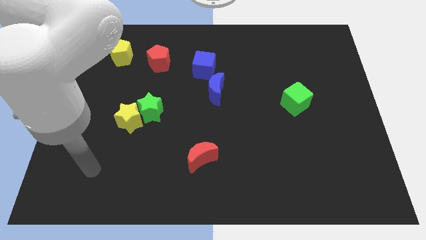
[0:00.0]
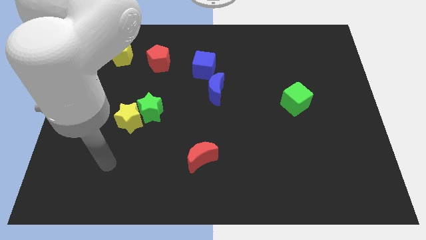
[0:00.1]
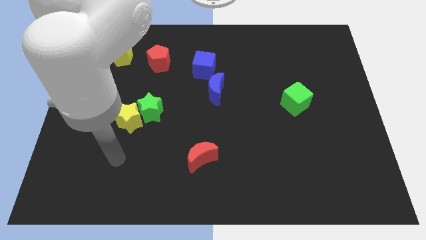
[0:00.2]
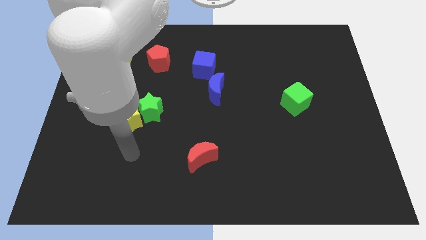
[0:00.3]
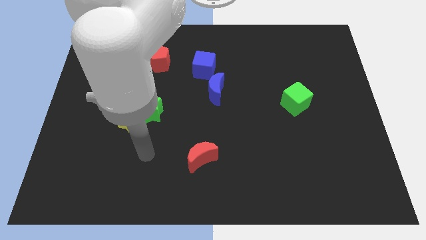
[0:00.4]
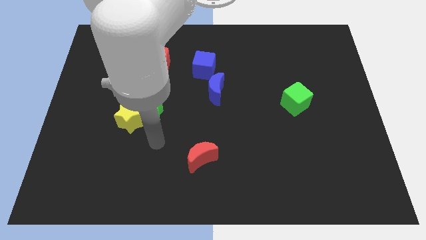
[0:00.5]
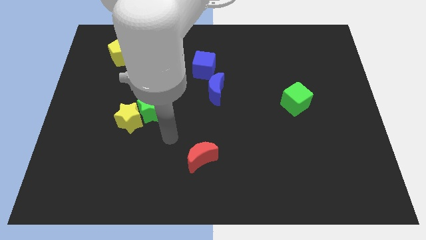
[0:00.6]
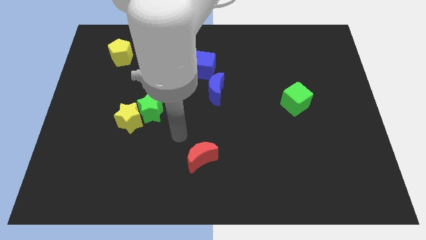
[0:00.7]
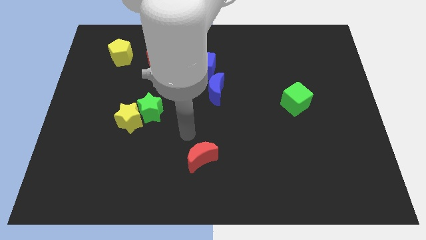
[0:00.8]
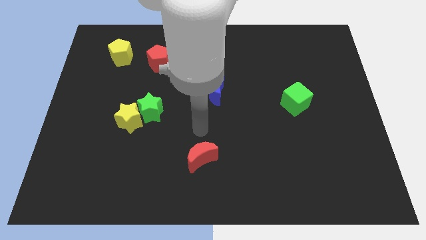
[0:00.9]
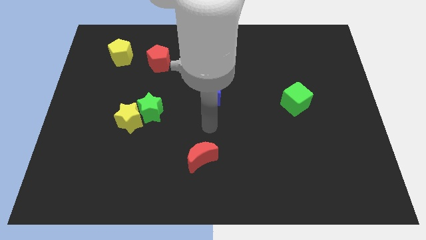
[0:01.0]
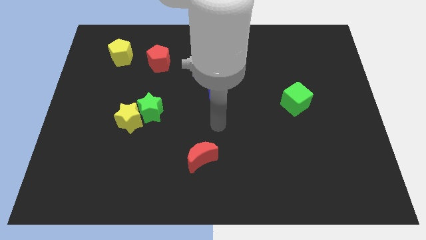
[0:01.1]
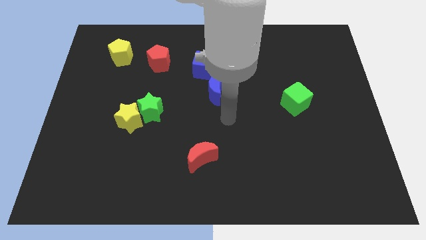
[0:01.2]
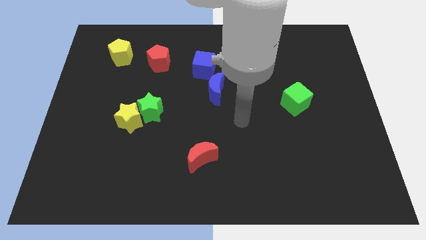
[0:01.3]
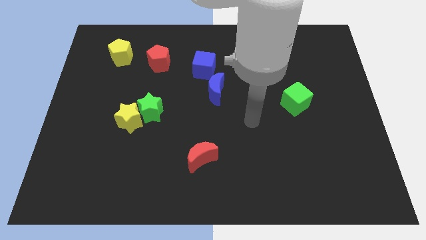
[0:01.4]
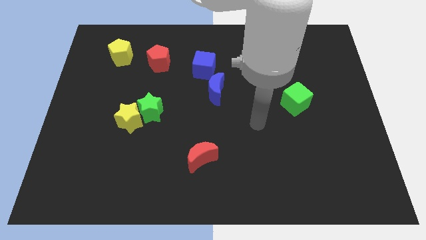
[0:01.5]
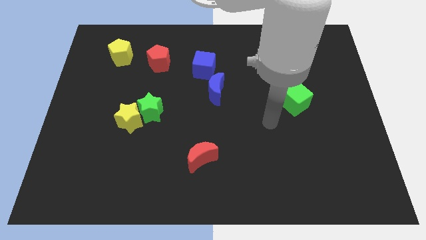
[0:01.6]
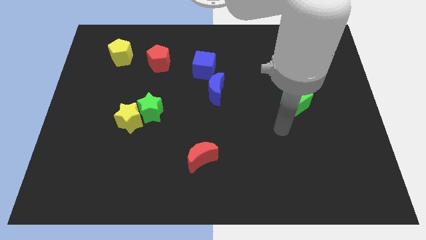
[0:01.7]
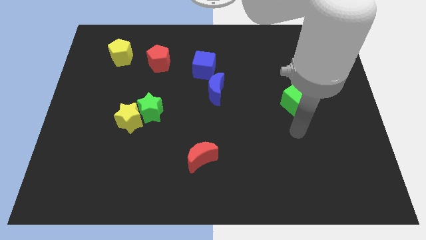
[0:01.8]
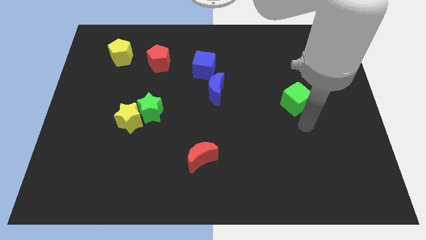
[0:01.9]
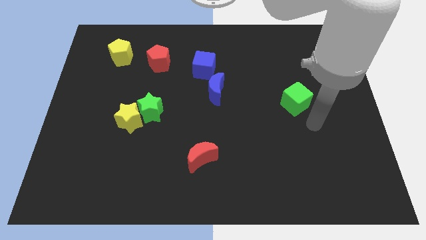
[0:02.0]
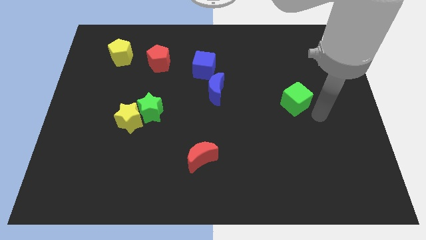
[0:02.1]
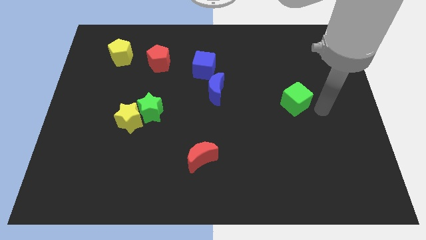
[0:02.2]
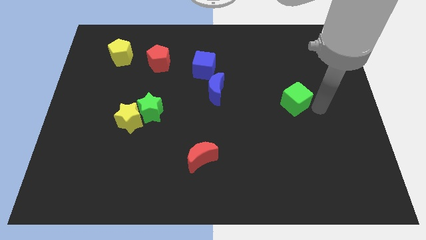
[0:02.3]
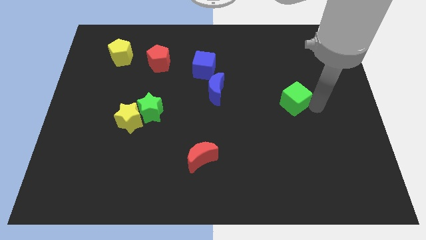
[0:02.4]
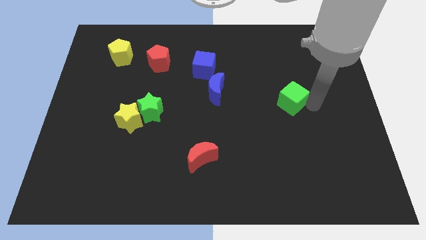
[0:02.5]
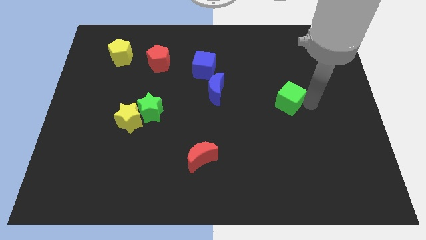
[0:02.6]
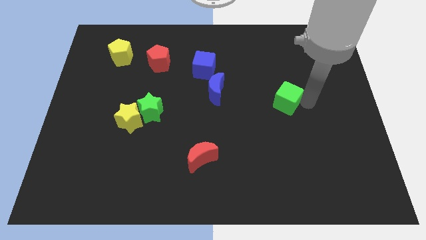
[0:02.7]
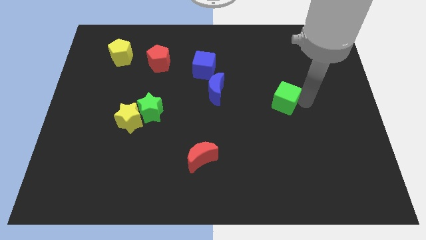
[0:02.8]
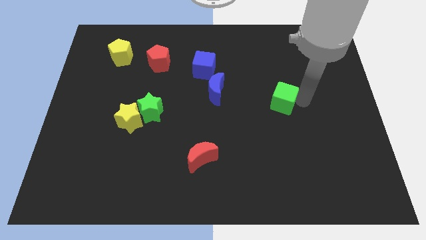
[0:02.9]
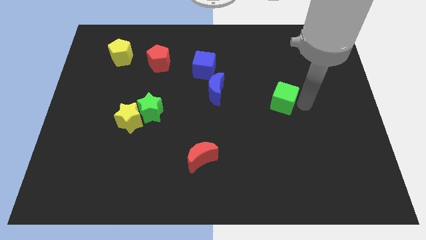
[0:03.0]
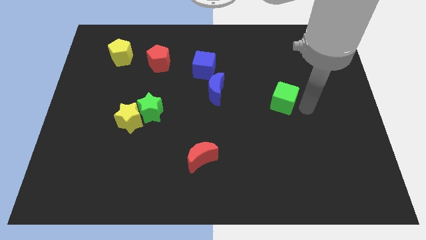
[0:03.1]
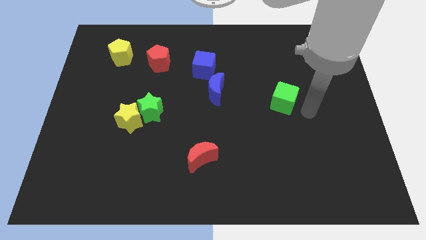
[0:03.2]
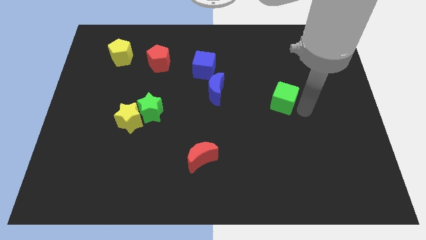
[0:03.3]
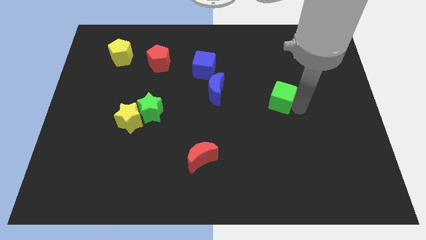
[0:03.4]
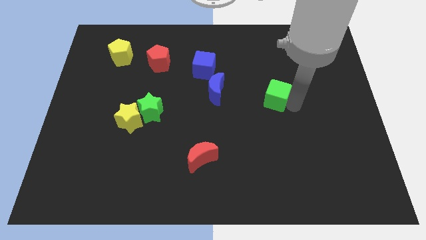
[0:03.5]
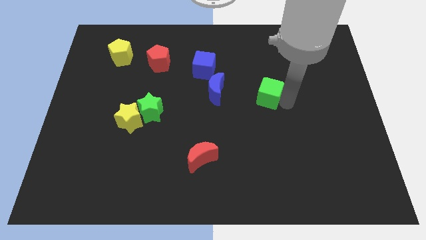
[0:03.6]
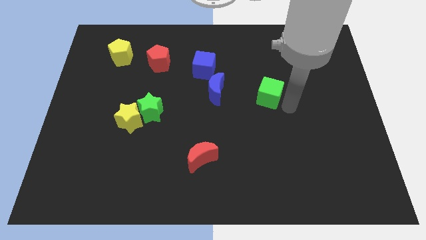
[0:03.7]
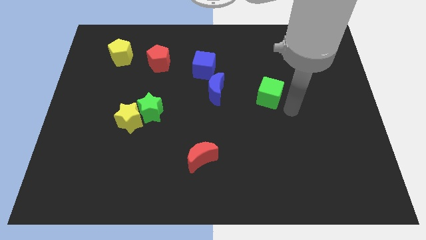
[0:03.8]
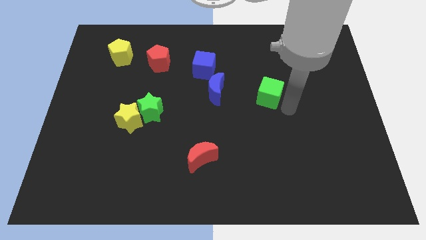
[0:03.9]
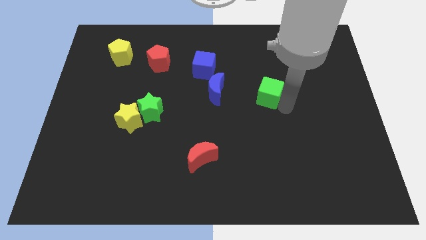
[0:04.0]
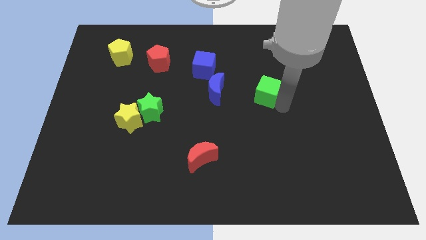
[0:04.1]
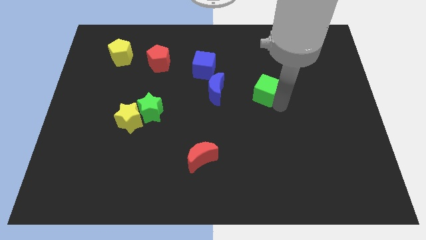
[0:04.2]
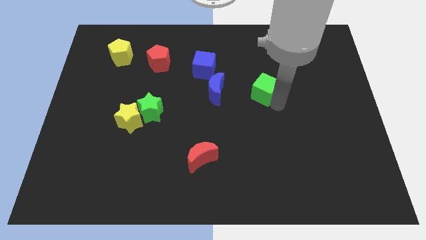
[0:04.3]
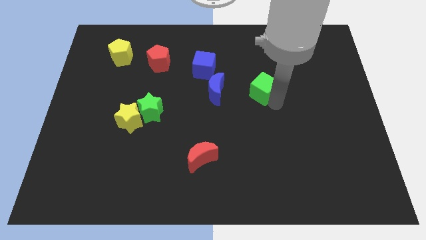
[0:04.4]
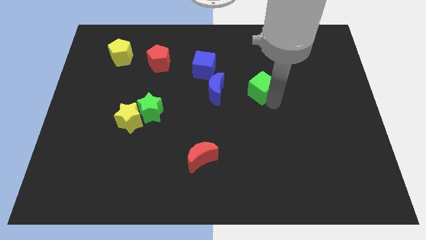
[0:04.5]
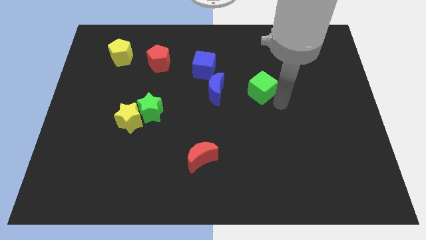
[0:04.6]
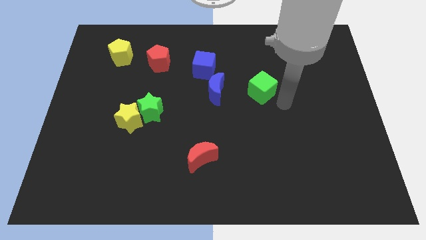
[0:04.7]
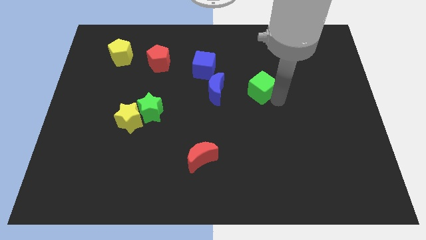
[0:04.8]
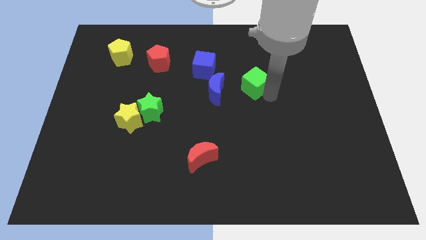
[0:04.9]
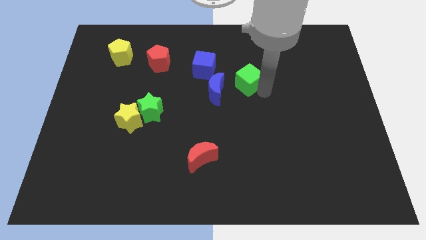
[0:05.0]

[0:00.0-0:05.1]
put the green cube to the top right side of the blue moon

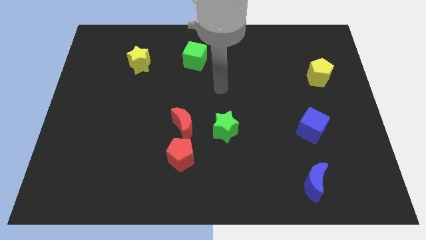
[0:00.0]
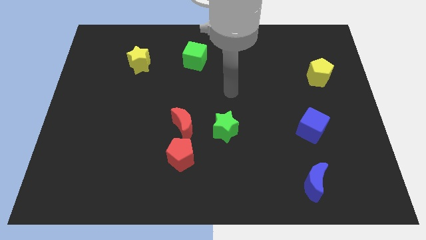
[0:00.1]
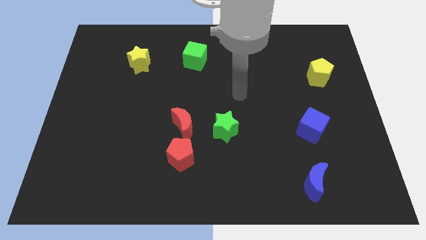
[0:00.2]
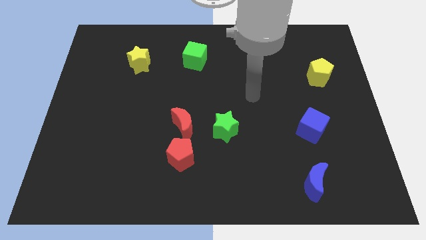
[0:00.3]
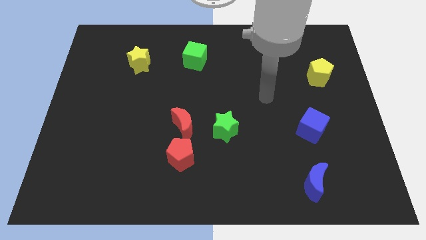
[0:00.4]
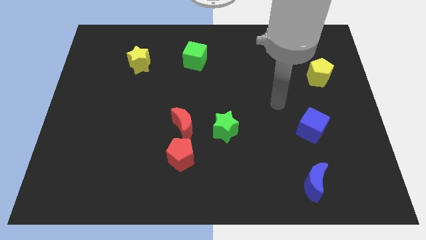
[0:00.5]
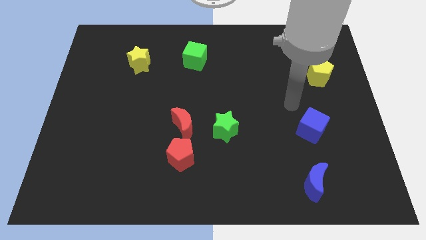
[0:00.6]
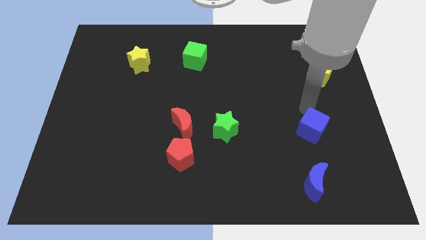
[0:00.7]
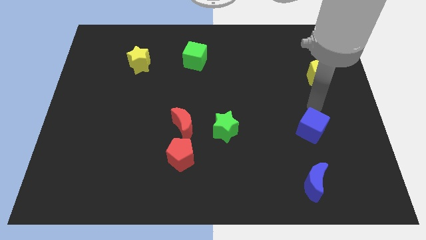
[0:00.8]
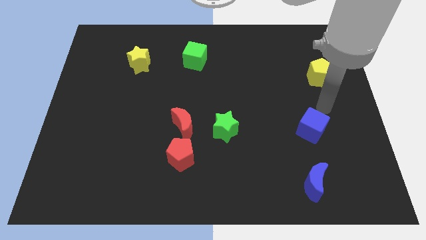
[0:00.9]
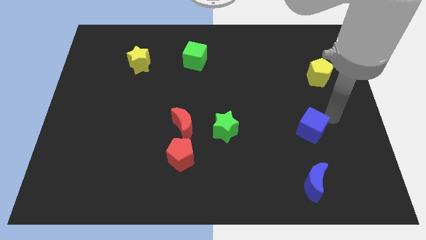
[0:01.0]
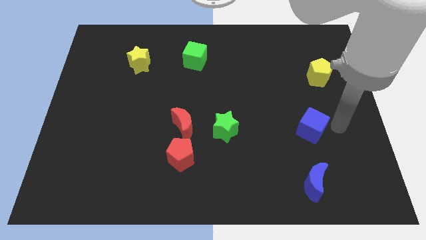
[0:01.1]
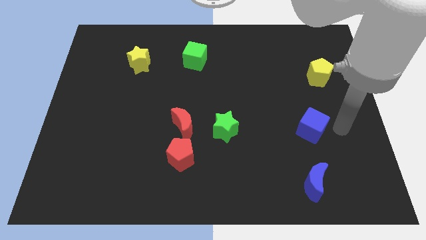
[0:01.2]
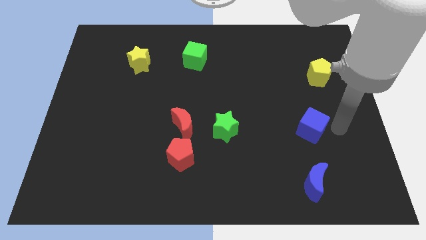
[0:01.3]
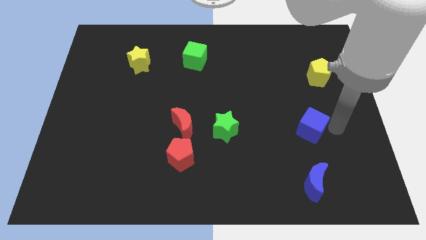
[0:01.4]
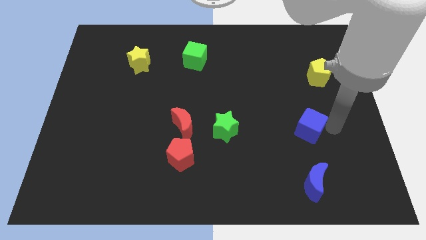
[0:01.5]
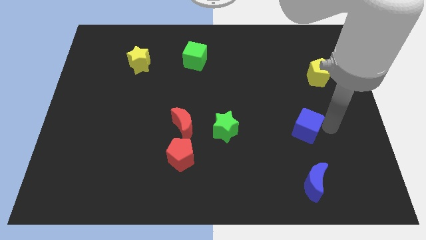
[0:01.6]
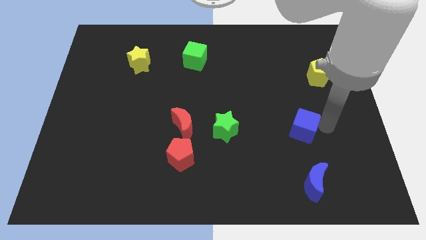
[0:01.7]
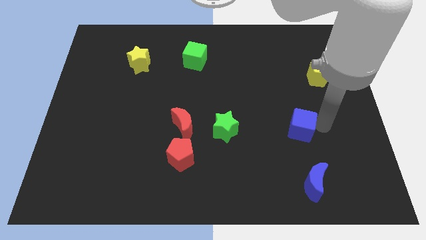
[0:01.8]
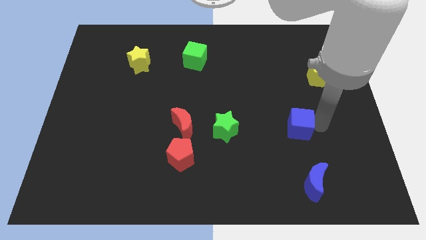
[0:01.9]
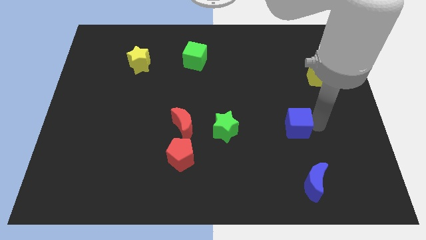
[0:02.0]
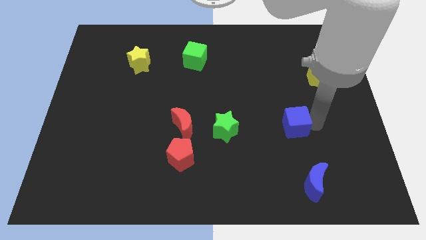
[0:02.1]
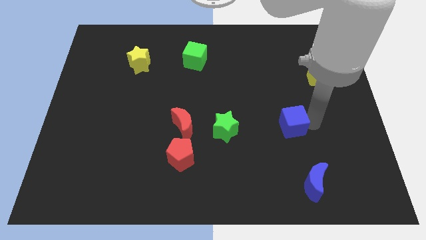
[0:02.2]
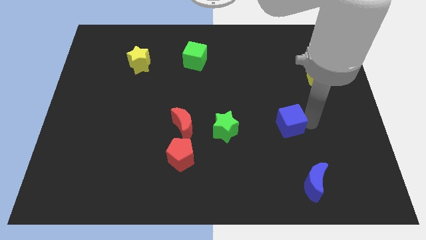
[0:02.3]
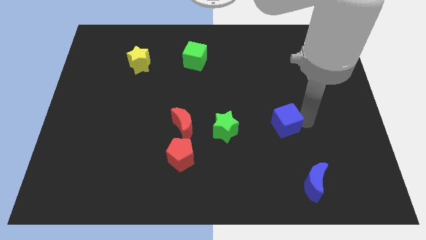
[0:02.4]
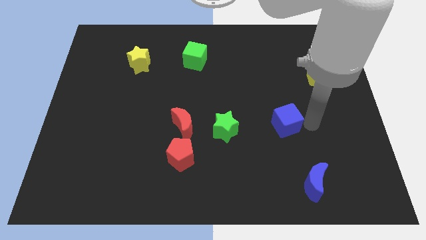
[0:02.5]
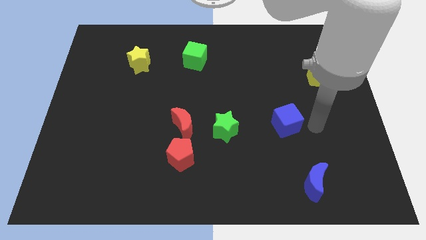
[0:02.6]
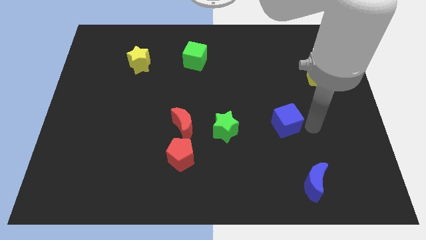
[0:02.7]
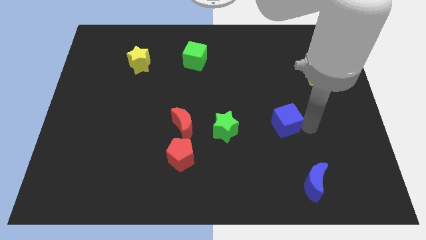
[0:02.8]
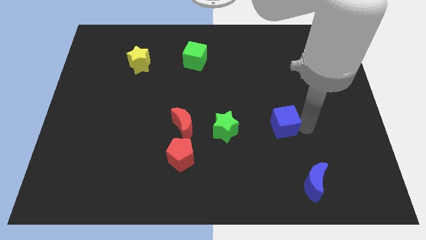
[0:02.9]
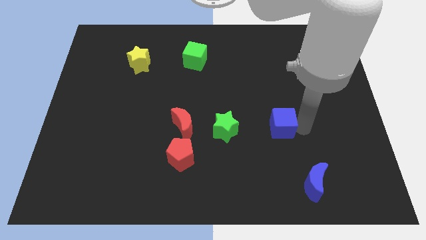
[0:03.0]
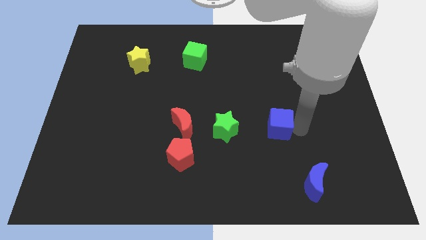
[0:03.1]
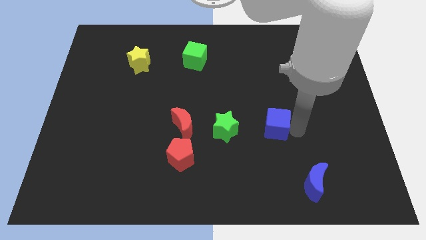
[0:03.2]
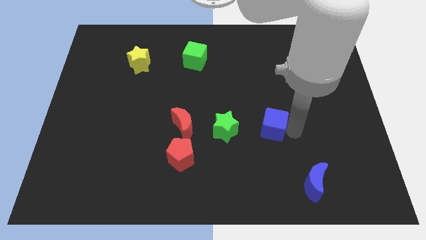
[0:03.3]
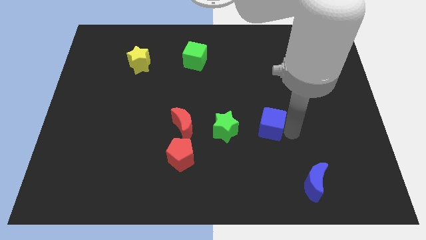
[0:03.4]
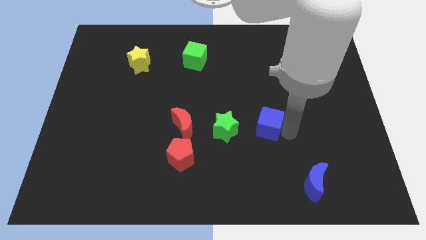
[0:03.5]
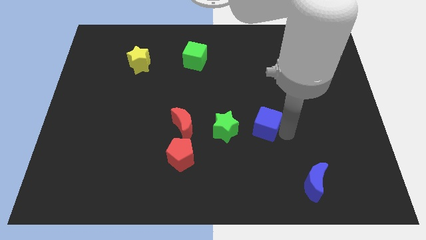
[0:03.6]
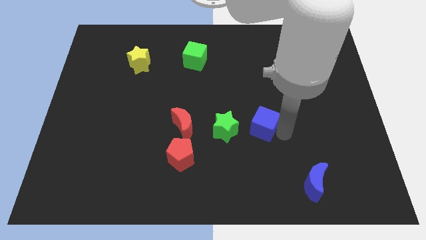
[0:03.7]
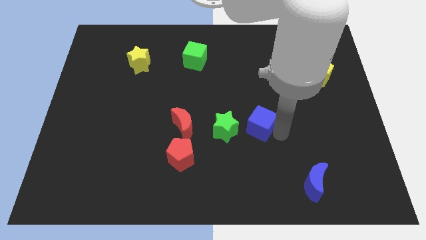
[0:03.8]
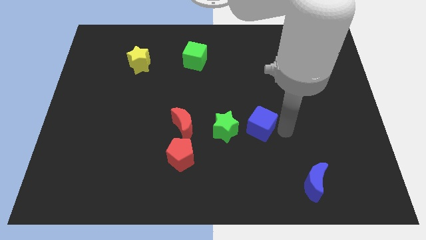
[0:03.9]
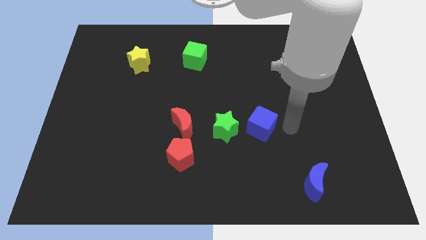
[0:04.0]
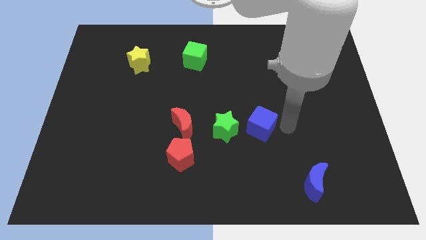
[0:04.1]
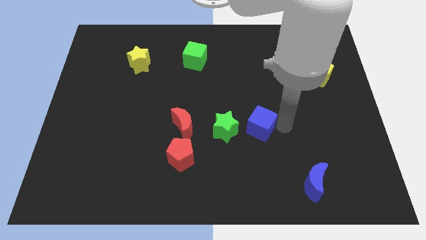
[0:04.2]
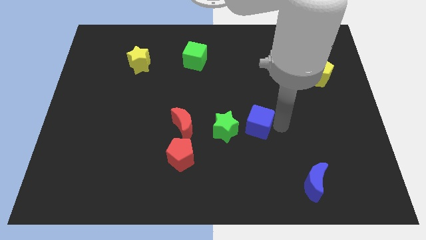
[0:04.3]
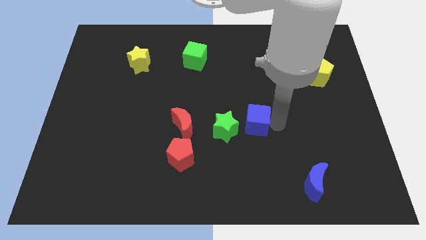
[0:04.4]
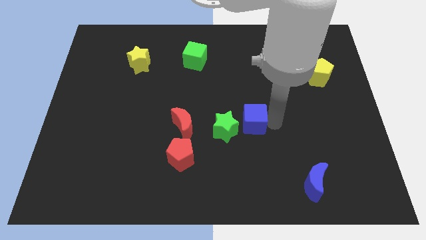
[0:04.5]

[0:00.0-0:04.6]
move the blue cube just right of the red moon
